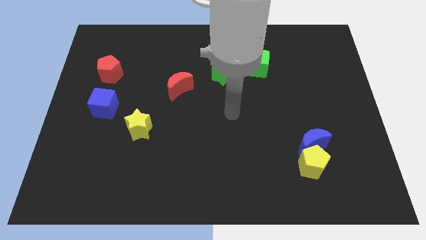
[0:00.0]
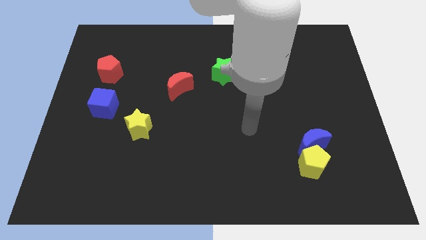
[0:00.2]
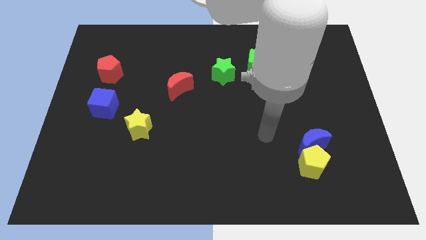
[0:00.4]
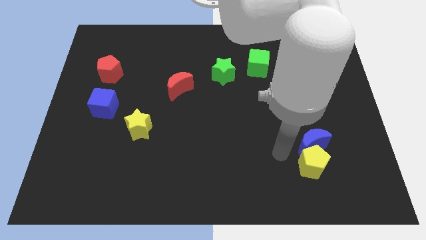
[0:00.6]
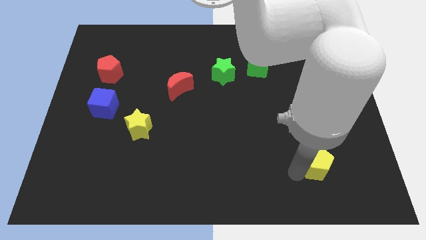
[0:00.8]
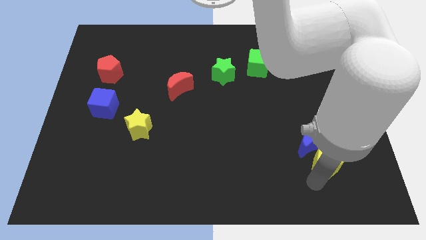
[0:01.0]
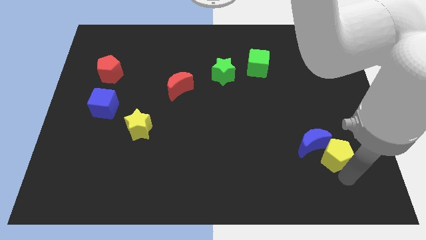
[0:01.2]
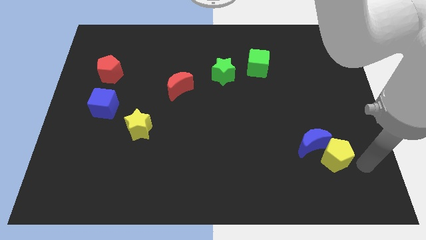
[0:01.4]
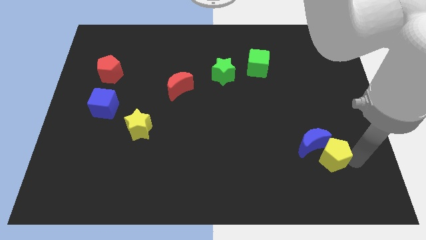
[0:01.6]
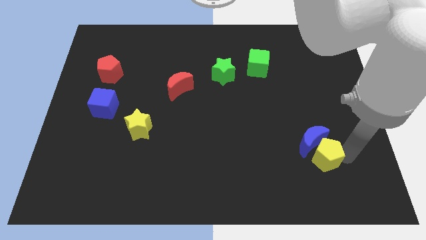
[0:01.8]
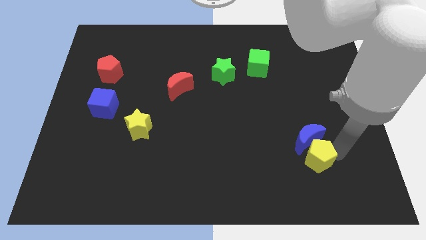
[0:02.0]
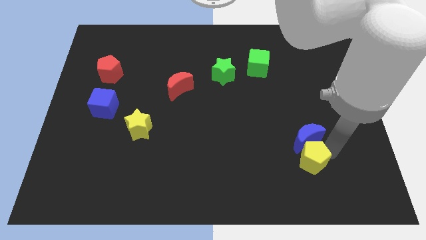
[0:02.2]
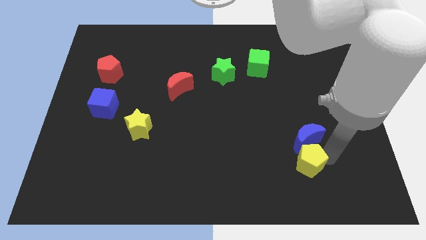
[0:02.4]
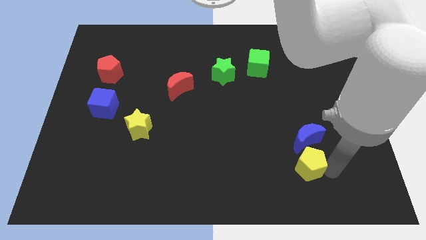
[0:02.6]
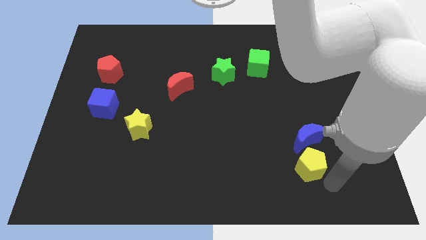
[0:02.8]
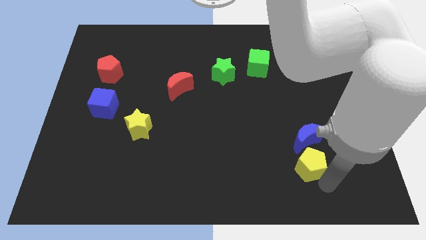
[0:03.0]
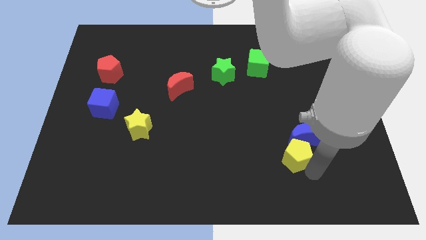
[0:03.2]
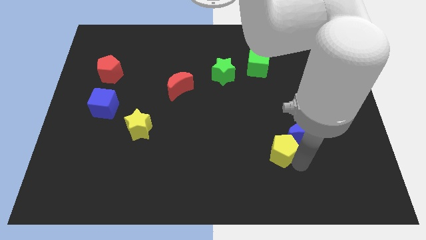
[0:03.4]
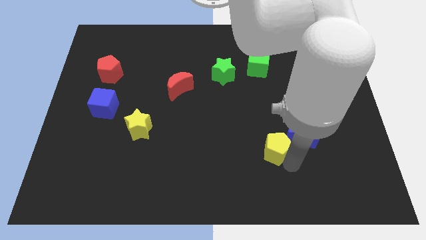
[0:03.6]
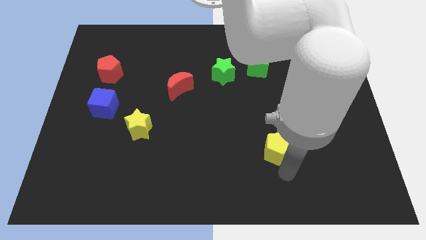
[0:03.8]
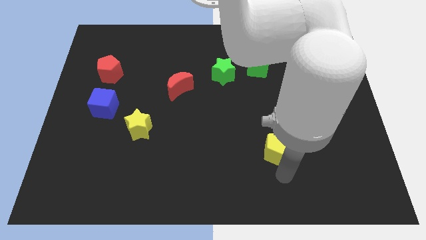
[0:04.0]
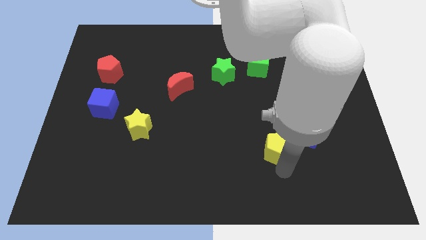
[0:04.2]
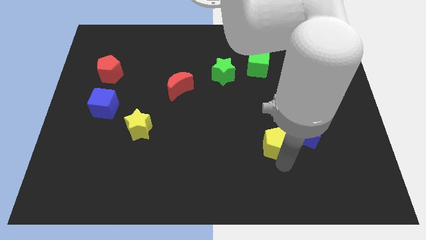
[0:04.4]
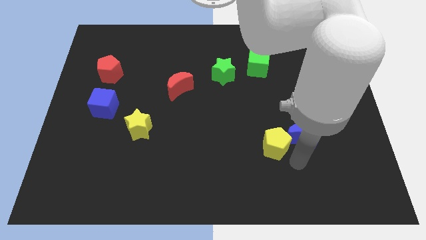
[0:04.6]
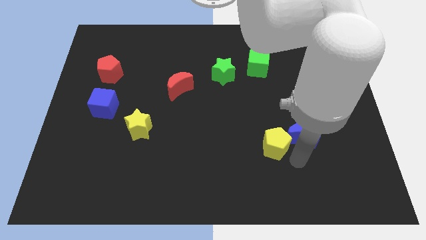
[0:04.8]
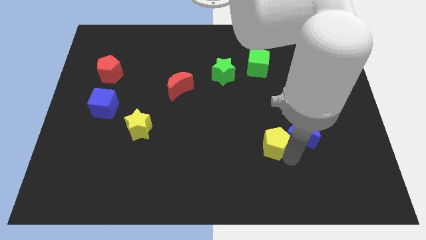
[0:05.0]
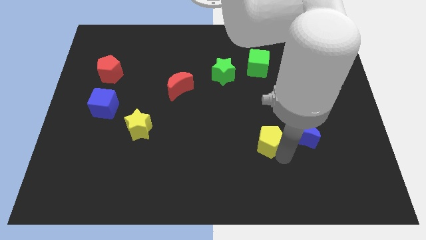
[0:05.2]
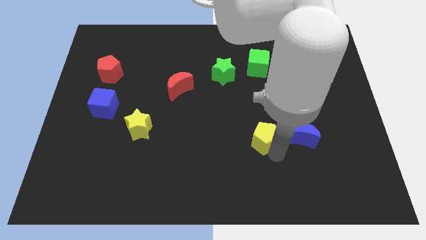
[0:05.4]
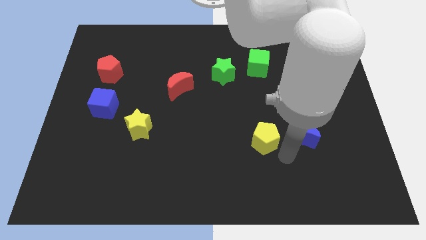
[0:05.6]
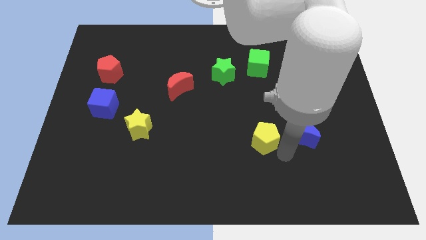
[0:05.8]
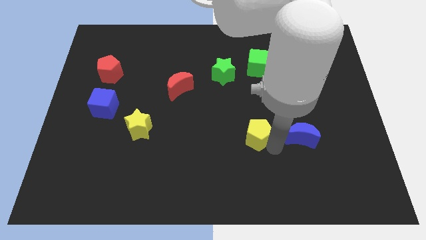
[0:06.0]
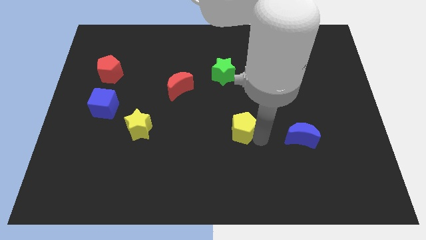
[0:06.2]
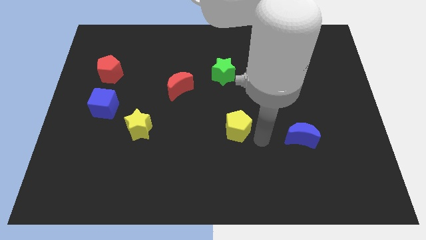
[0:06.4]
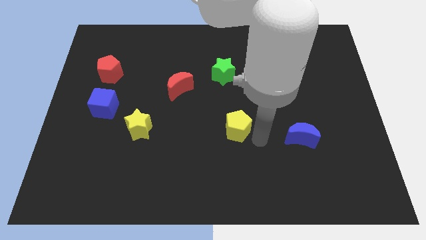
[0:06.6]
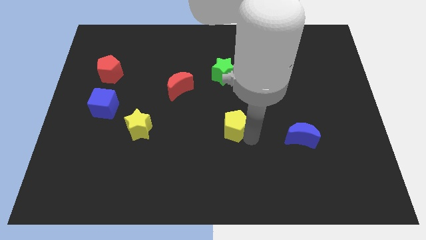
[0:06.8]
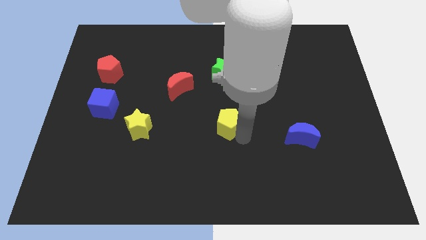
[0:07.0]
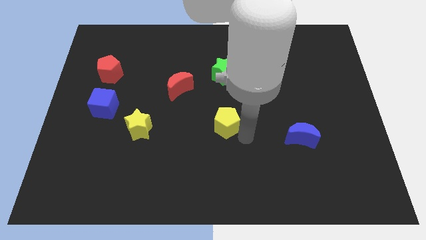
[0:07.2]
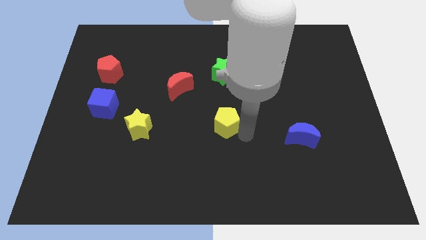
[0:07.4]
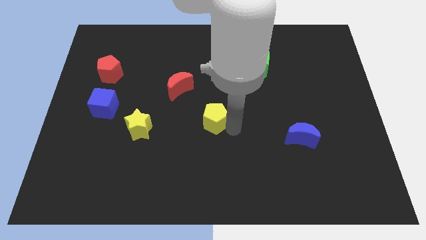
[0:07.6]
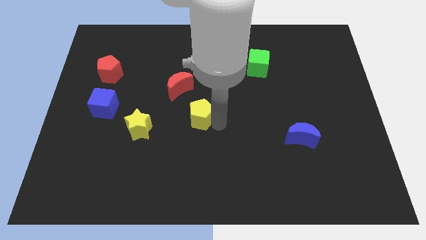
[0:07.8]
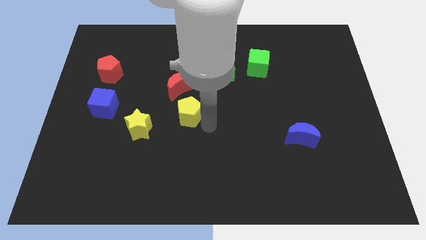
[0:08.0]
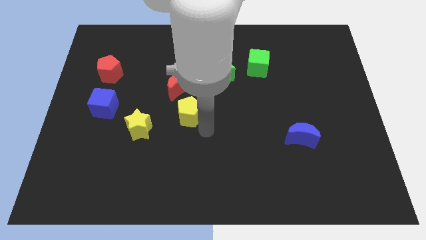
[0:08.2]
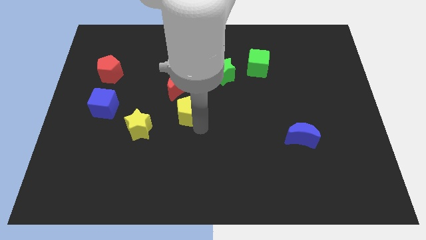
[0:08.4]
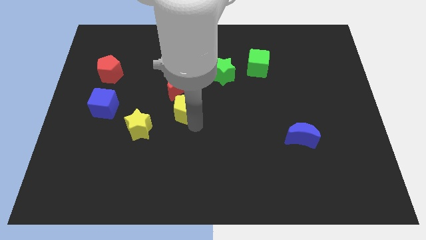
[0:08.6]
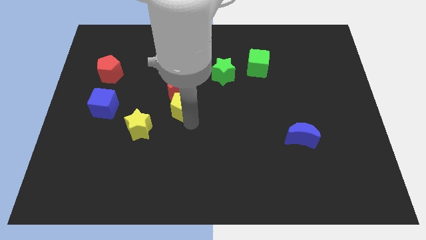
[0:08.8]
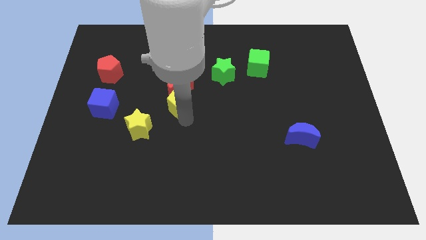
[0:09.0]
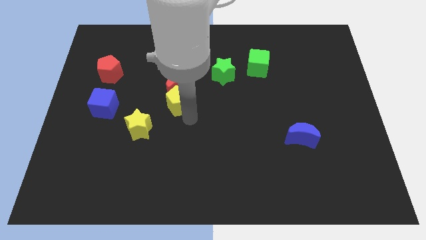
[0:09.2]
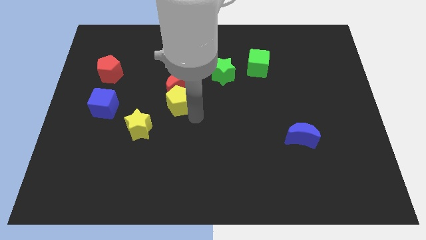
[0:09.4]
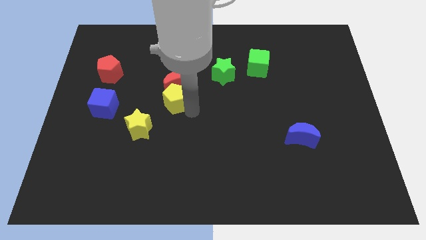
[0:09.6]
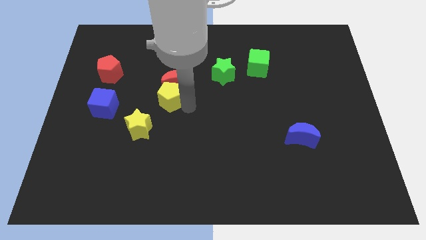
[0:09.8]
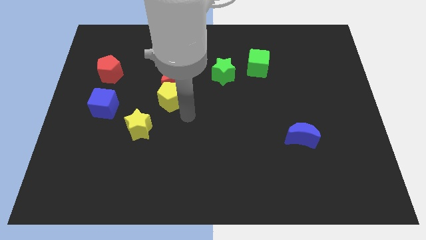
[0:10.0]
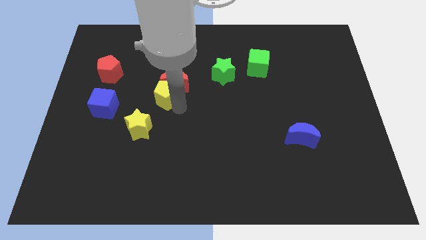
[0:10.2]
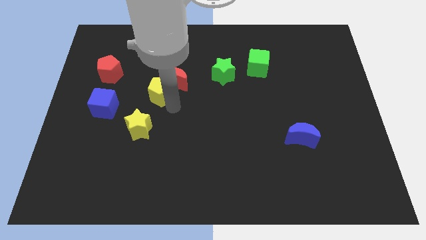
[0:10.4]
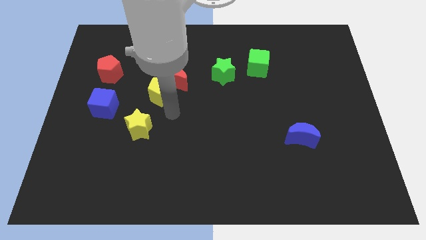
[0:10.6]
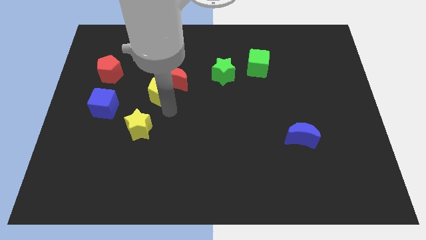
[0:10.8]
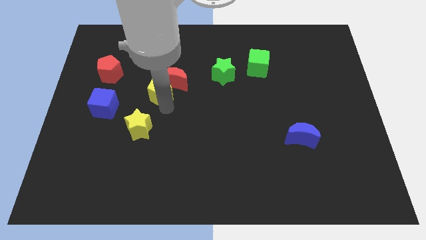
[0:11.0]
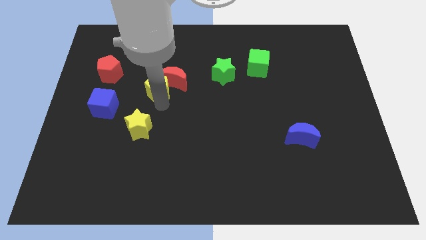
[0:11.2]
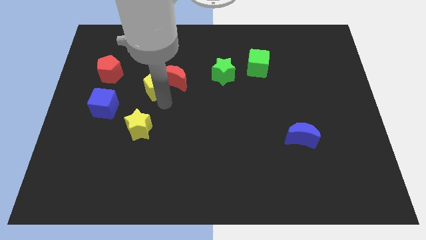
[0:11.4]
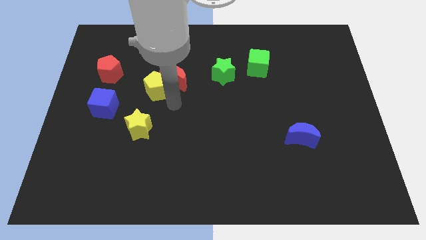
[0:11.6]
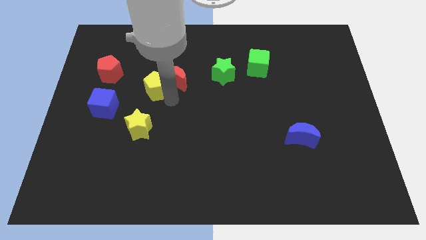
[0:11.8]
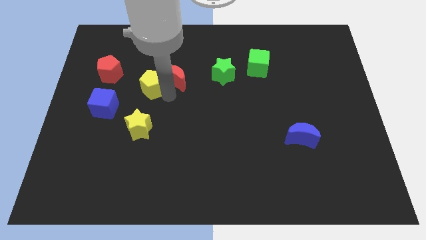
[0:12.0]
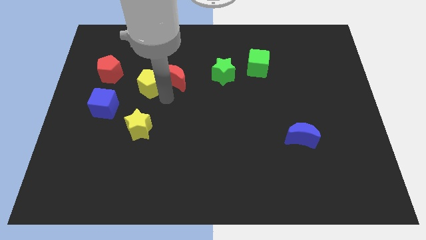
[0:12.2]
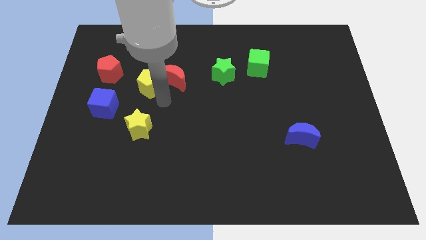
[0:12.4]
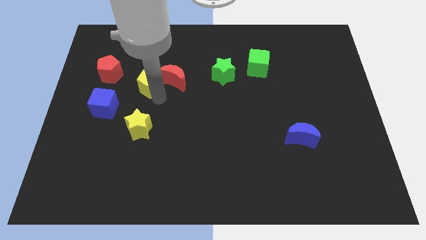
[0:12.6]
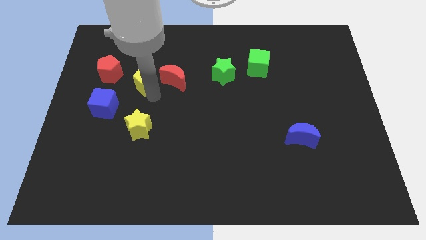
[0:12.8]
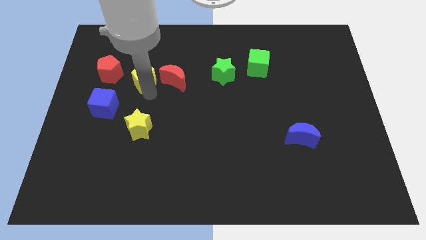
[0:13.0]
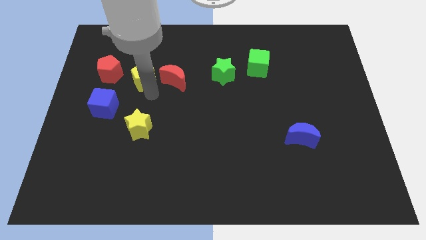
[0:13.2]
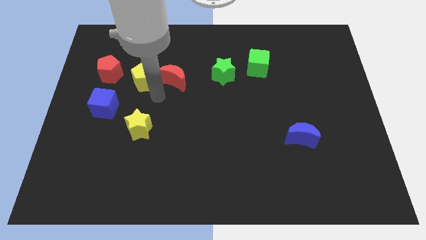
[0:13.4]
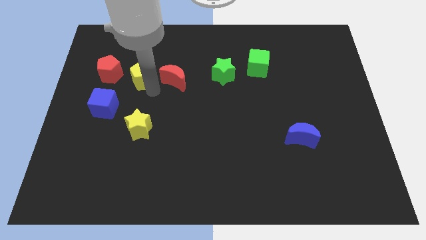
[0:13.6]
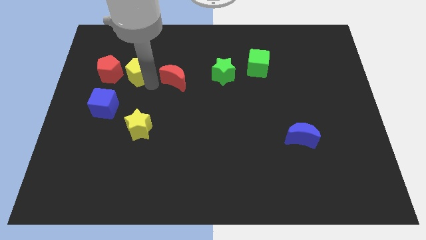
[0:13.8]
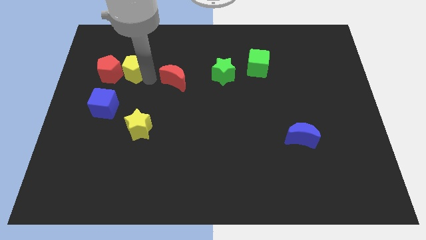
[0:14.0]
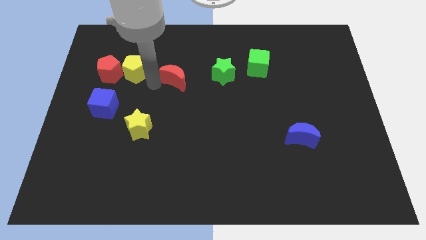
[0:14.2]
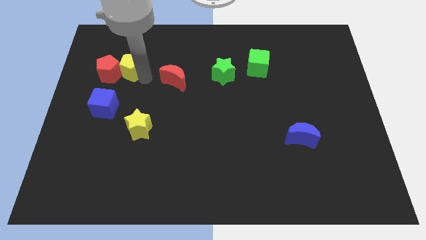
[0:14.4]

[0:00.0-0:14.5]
move the yellow pentagon to the top side of the blue cube
